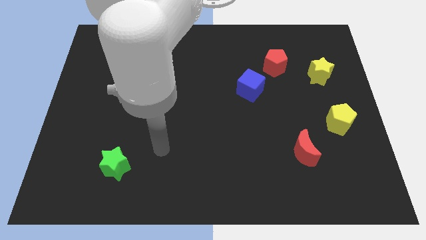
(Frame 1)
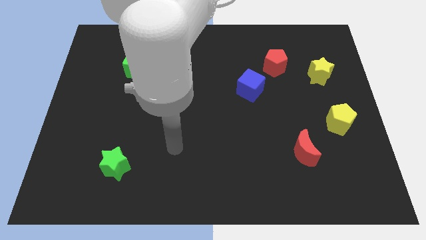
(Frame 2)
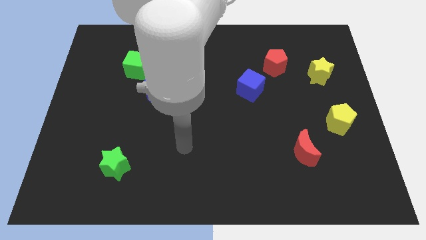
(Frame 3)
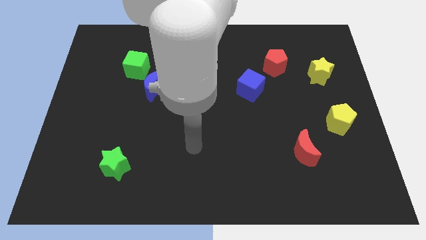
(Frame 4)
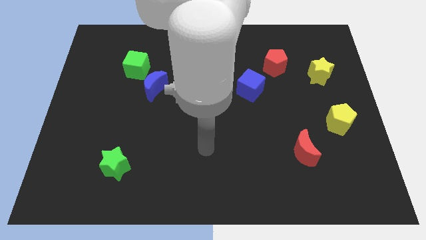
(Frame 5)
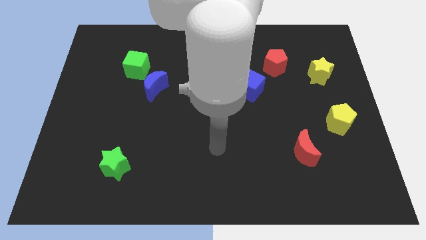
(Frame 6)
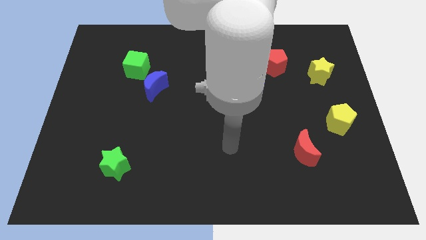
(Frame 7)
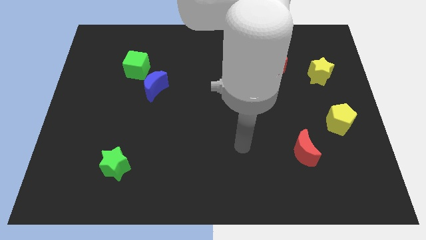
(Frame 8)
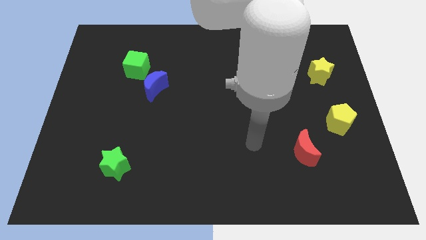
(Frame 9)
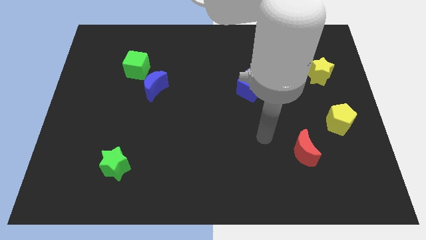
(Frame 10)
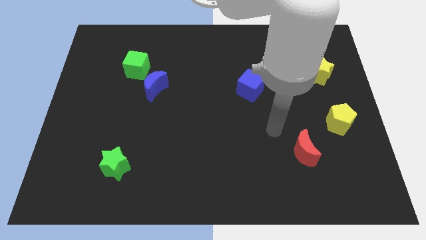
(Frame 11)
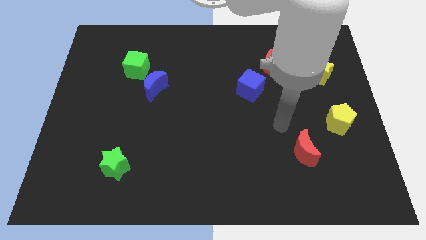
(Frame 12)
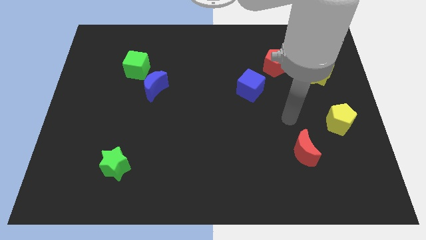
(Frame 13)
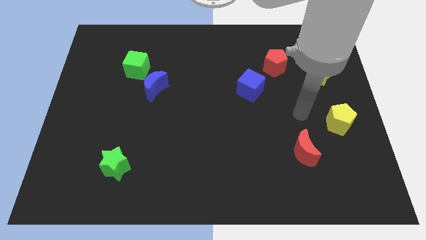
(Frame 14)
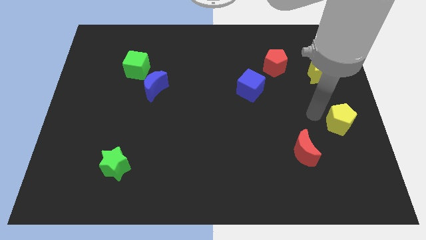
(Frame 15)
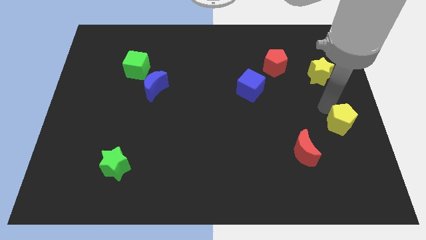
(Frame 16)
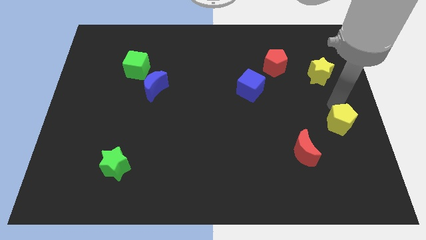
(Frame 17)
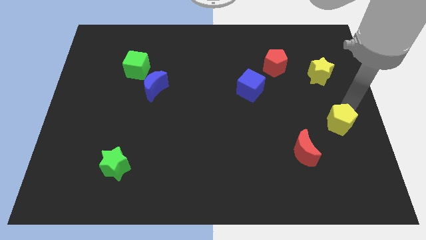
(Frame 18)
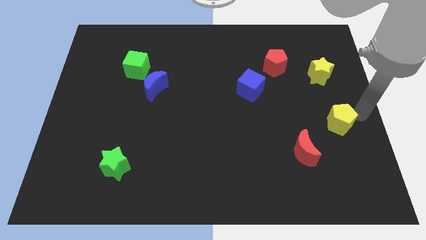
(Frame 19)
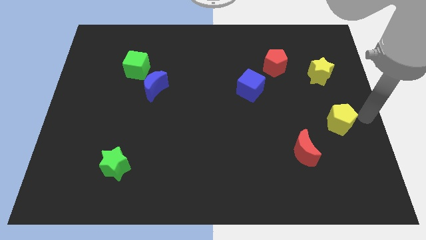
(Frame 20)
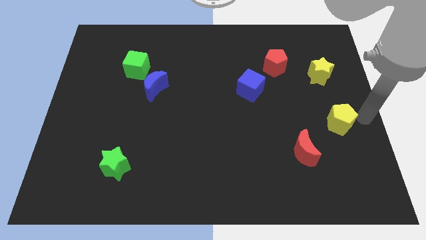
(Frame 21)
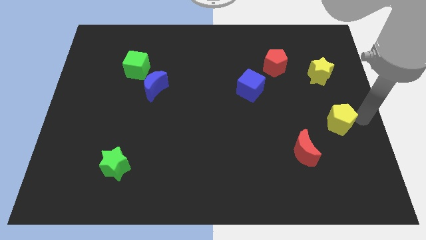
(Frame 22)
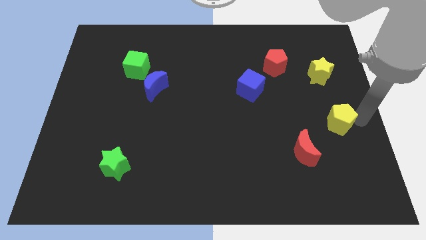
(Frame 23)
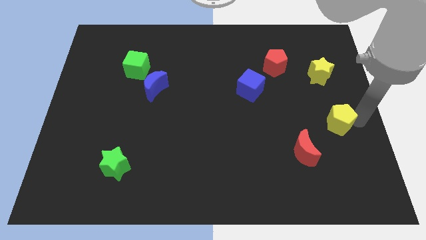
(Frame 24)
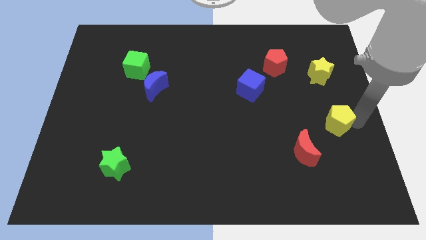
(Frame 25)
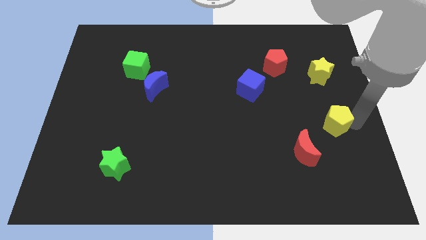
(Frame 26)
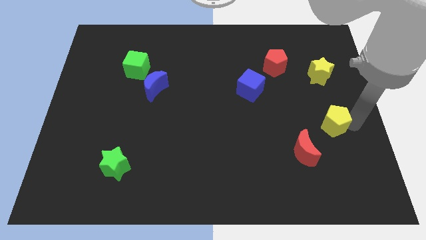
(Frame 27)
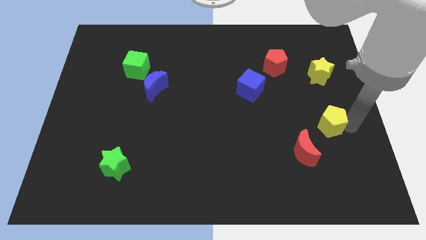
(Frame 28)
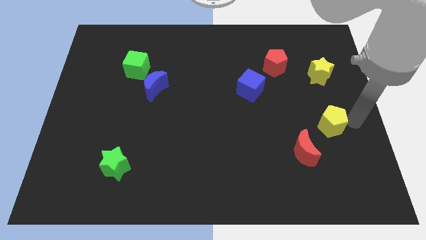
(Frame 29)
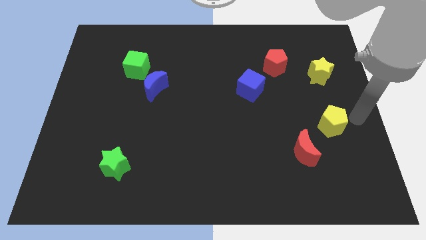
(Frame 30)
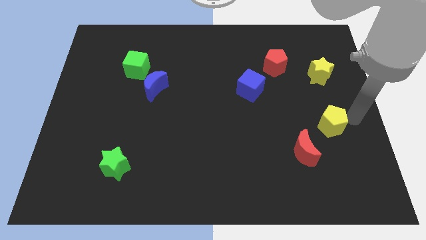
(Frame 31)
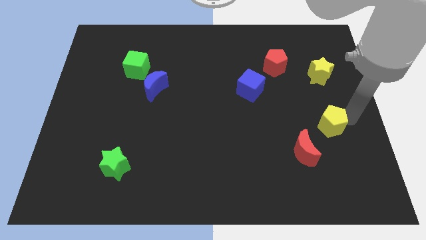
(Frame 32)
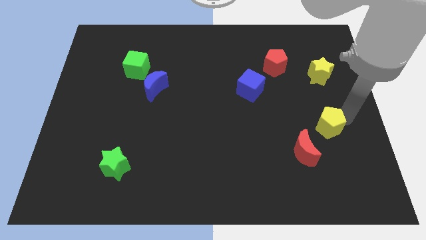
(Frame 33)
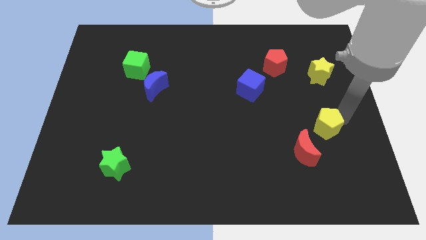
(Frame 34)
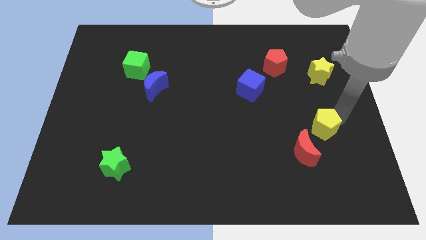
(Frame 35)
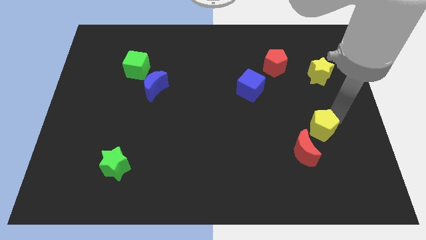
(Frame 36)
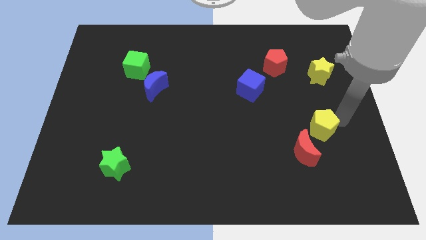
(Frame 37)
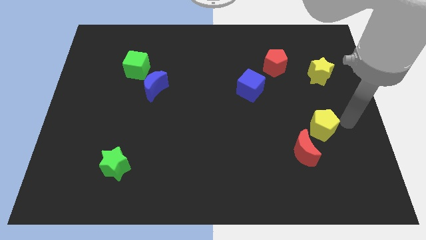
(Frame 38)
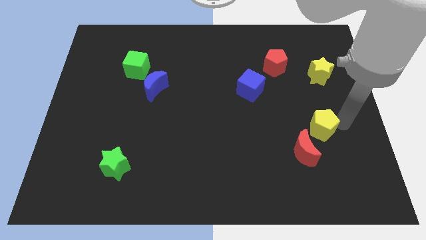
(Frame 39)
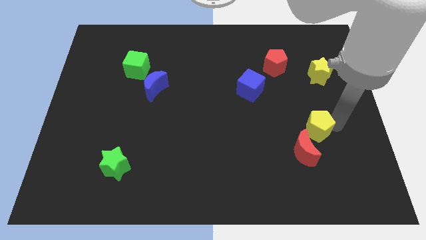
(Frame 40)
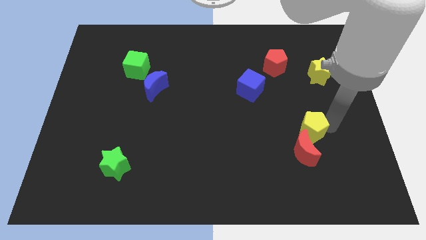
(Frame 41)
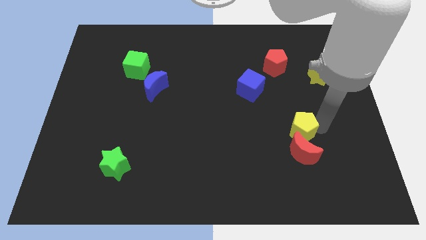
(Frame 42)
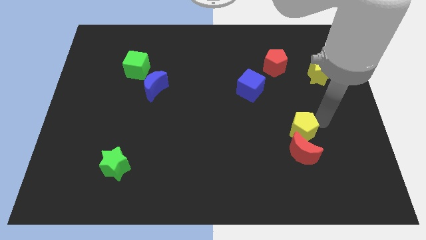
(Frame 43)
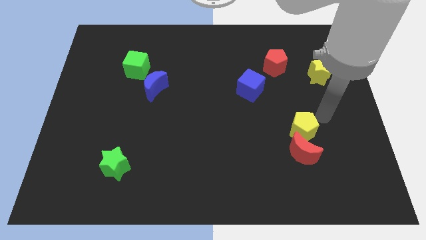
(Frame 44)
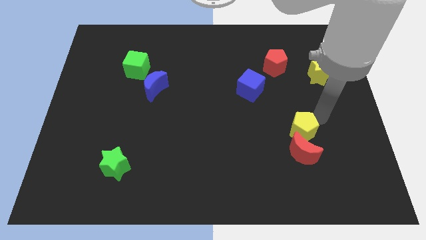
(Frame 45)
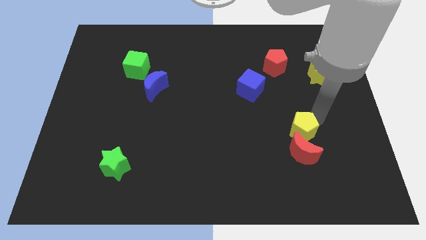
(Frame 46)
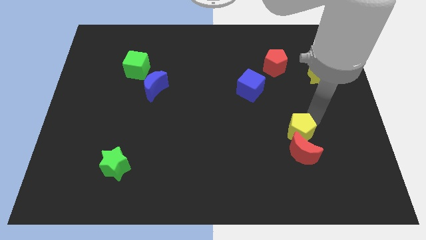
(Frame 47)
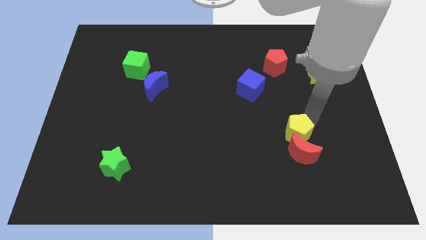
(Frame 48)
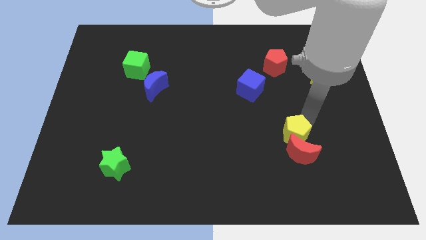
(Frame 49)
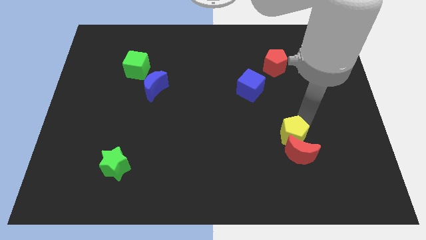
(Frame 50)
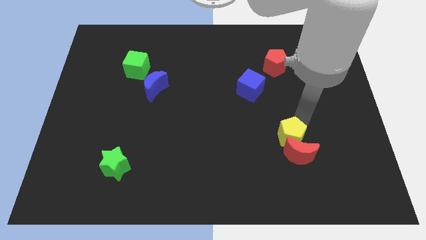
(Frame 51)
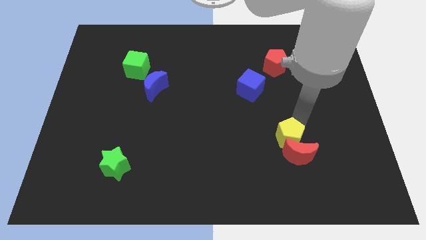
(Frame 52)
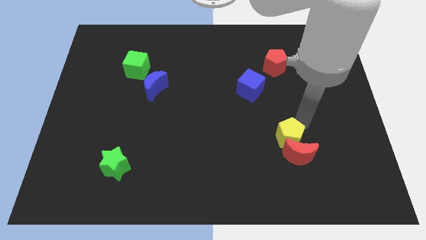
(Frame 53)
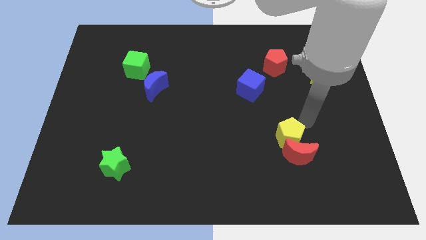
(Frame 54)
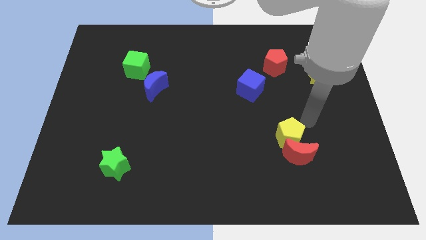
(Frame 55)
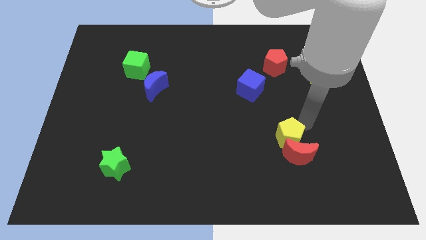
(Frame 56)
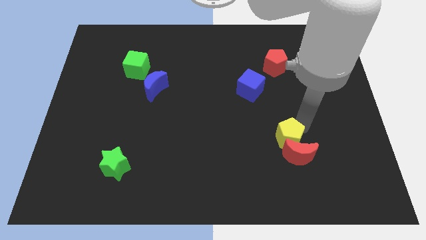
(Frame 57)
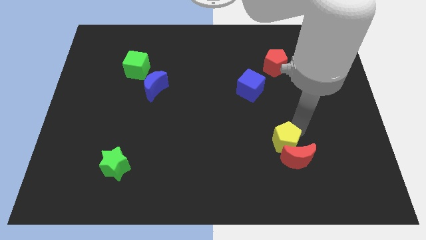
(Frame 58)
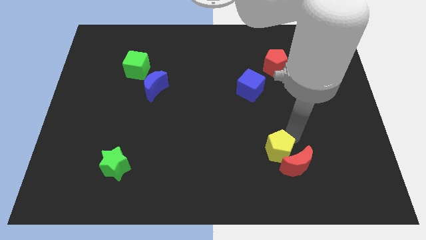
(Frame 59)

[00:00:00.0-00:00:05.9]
move the yellow pentagon just left of the red moon

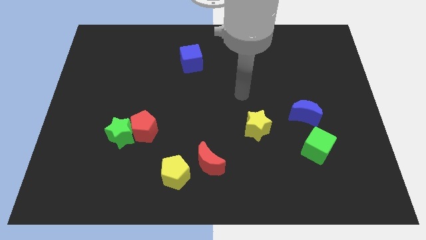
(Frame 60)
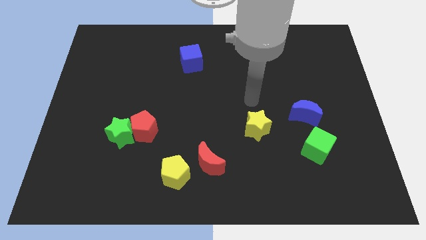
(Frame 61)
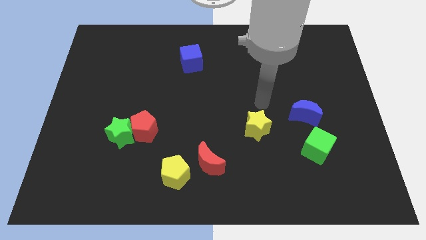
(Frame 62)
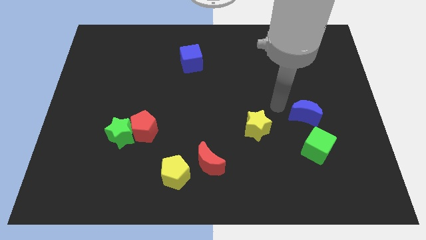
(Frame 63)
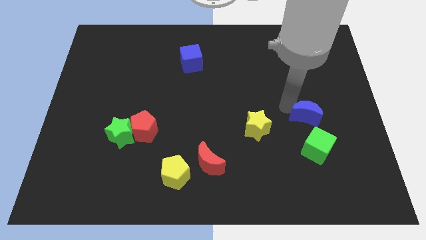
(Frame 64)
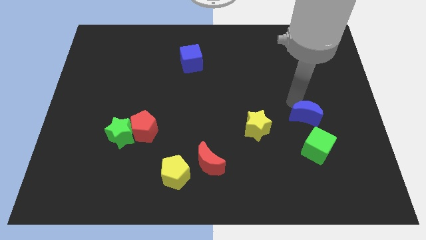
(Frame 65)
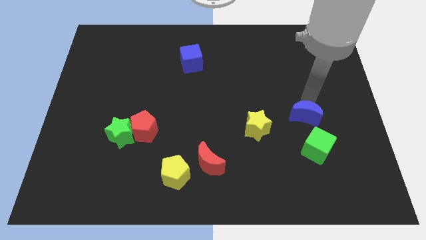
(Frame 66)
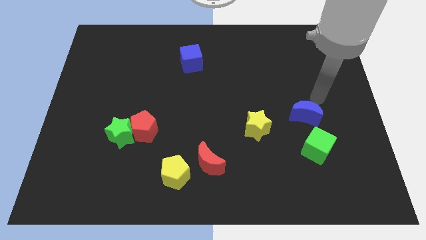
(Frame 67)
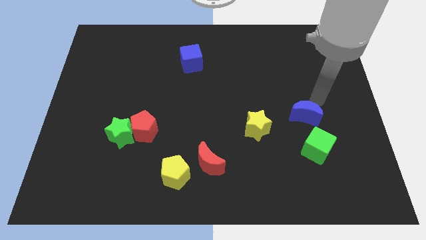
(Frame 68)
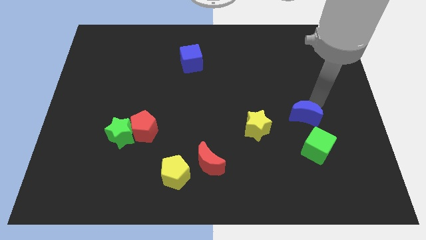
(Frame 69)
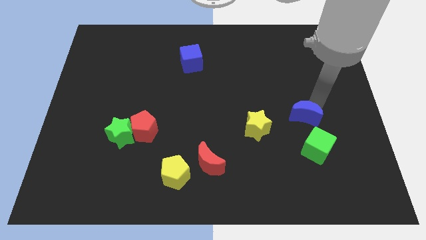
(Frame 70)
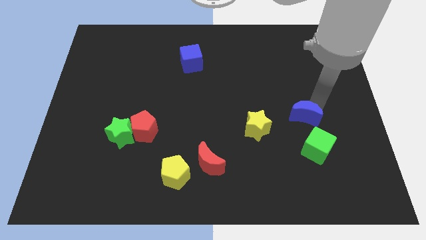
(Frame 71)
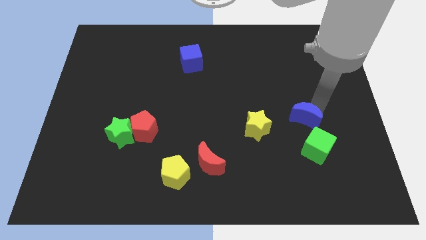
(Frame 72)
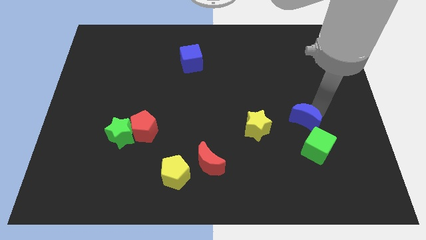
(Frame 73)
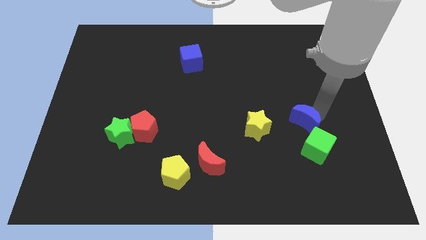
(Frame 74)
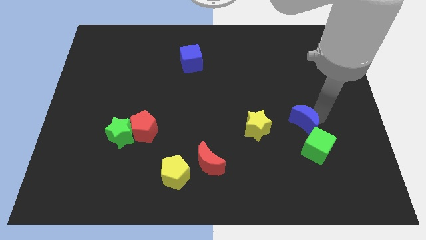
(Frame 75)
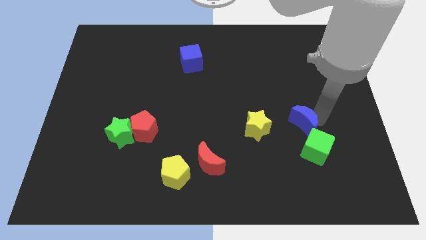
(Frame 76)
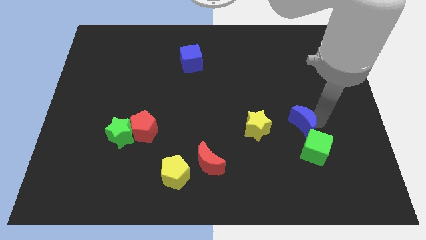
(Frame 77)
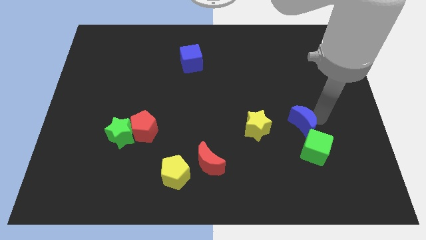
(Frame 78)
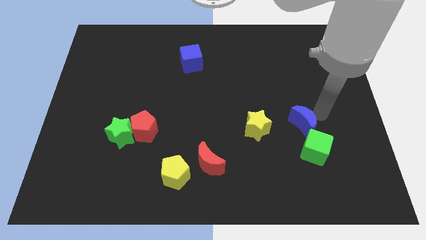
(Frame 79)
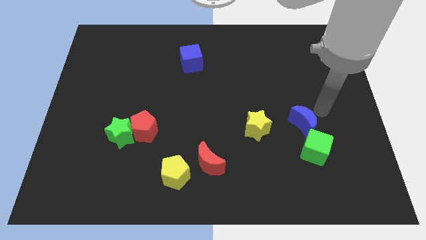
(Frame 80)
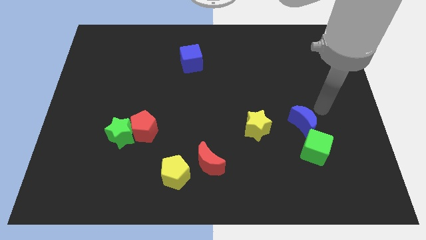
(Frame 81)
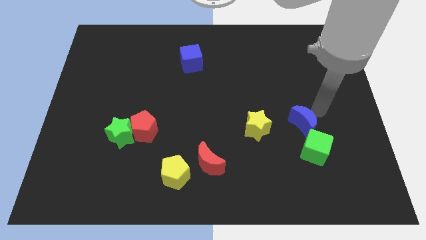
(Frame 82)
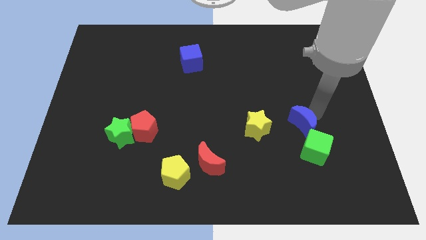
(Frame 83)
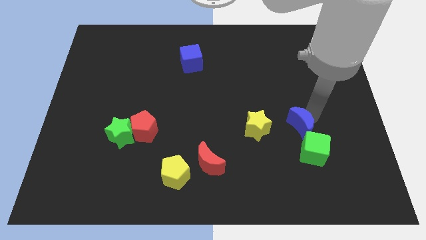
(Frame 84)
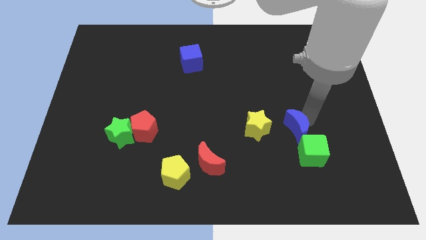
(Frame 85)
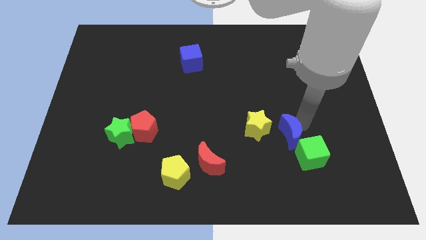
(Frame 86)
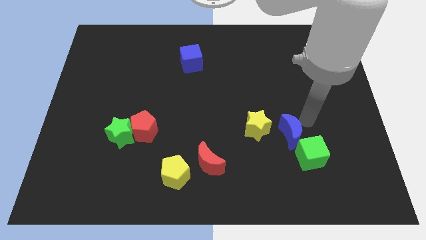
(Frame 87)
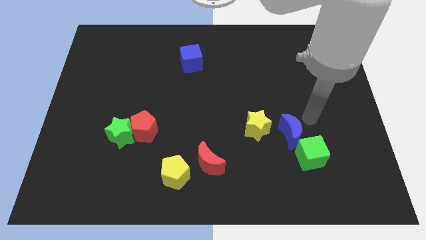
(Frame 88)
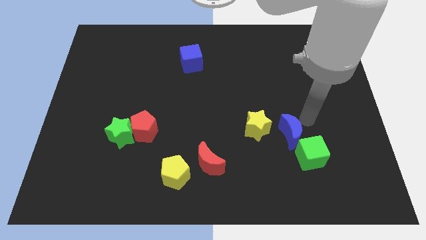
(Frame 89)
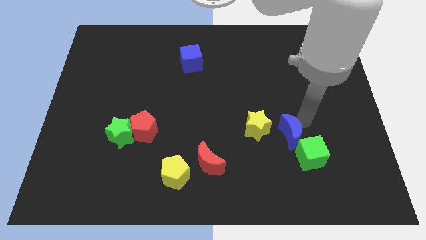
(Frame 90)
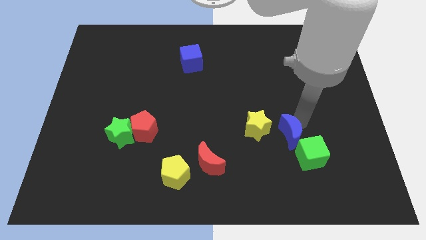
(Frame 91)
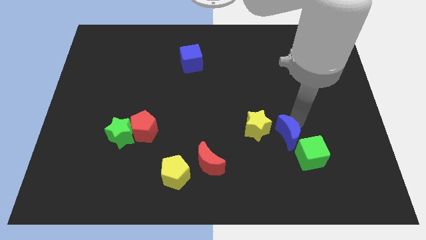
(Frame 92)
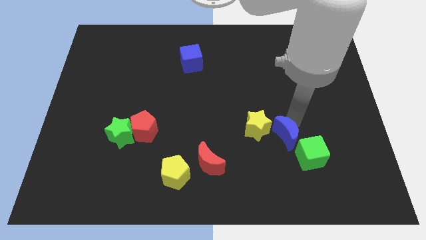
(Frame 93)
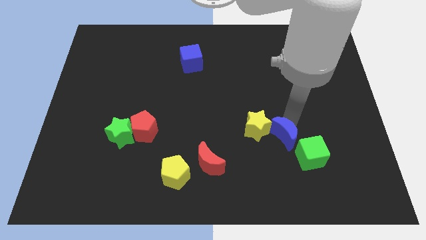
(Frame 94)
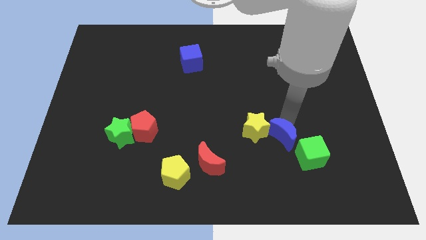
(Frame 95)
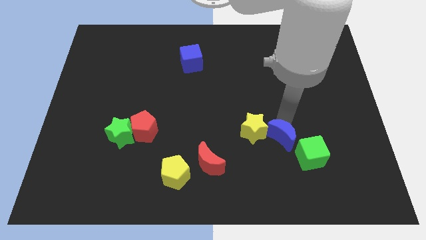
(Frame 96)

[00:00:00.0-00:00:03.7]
move the blue moon left of the green cube
